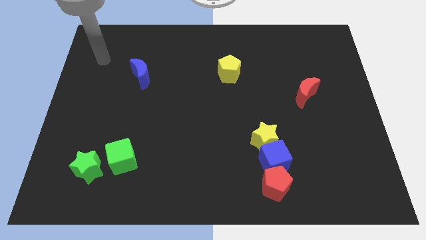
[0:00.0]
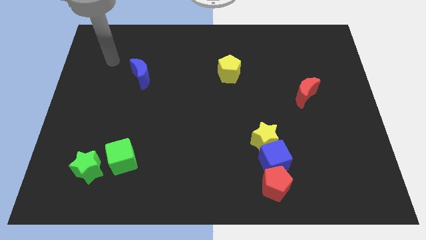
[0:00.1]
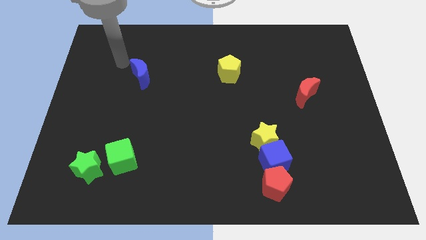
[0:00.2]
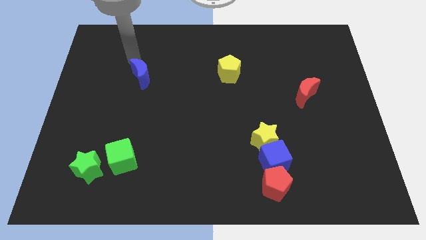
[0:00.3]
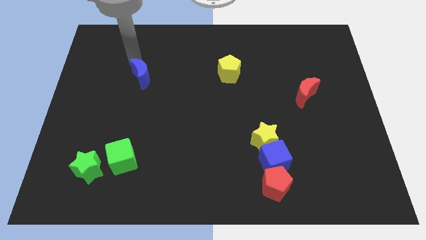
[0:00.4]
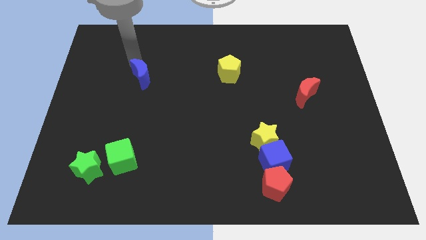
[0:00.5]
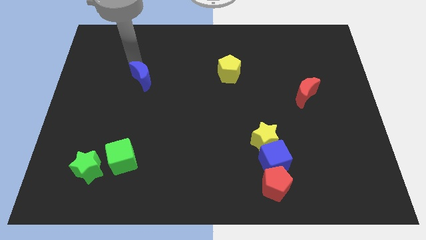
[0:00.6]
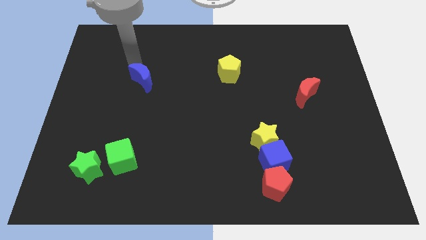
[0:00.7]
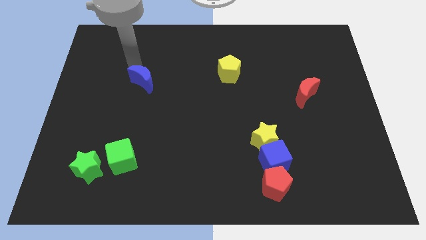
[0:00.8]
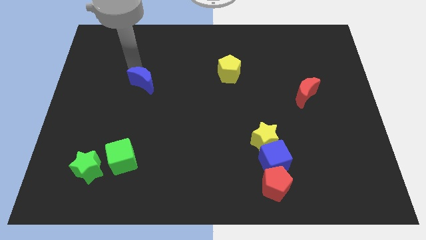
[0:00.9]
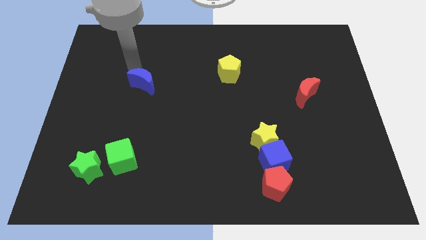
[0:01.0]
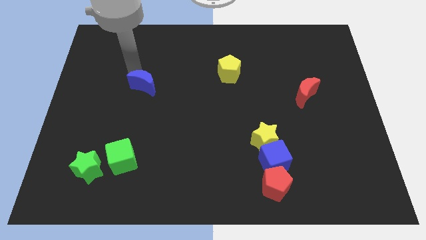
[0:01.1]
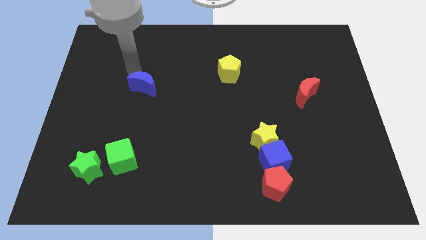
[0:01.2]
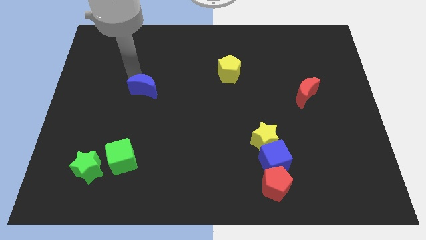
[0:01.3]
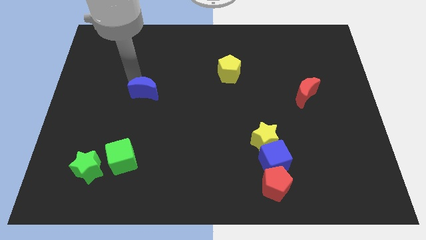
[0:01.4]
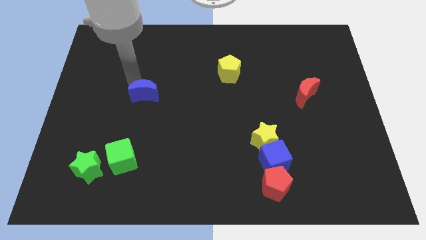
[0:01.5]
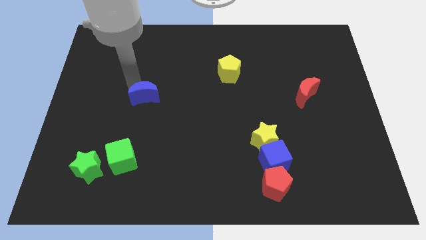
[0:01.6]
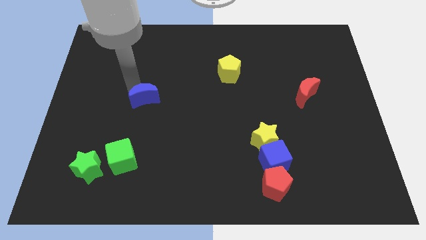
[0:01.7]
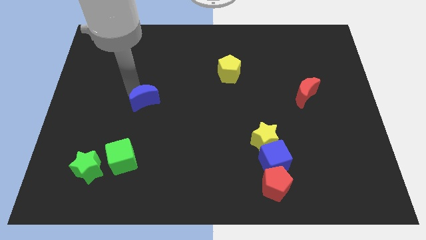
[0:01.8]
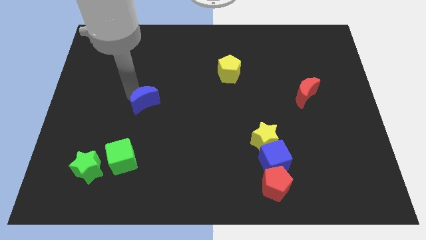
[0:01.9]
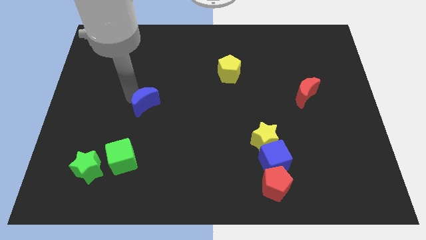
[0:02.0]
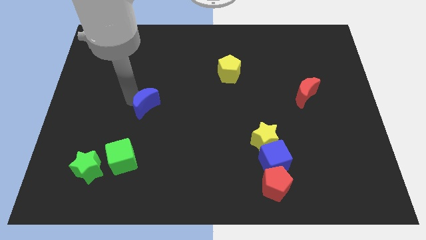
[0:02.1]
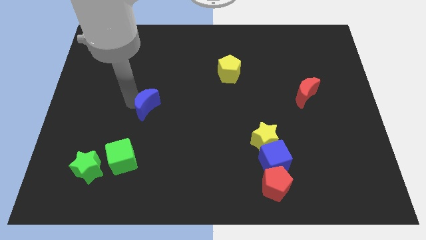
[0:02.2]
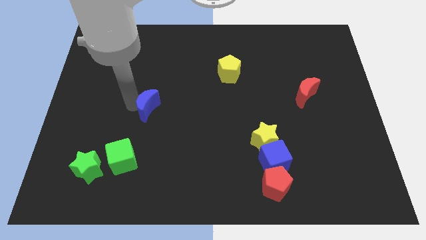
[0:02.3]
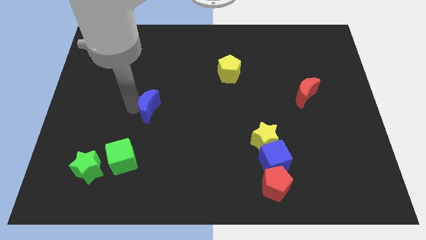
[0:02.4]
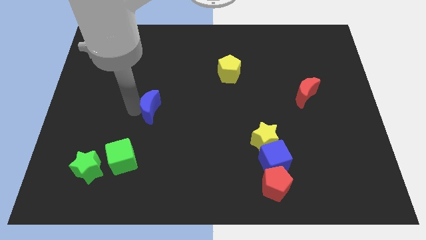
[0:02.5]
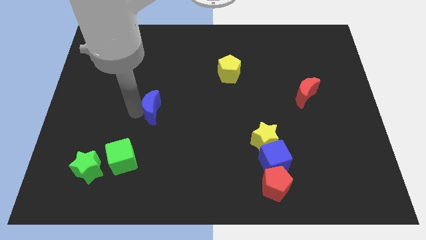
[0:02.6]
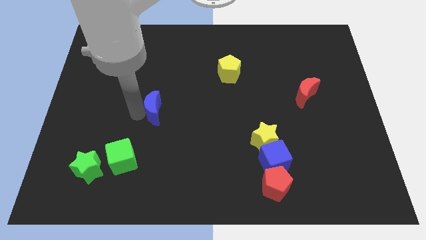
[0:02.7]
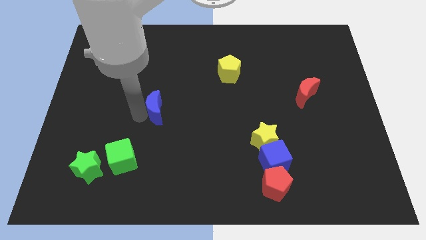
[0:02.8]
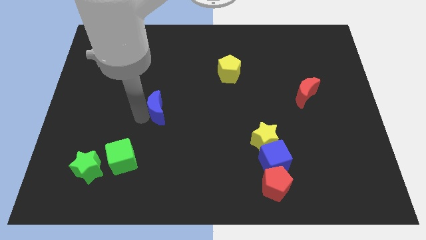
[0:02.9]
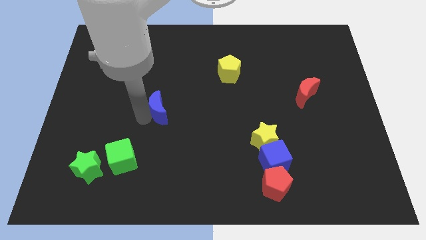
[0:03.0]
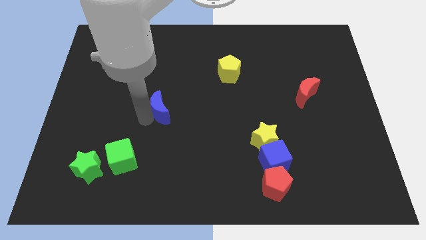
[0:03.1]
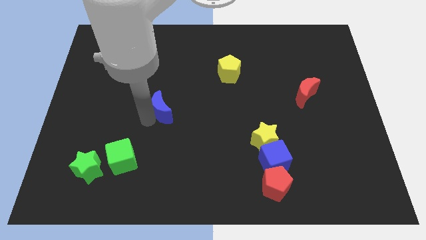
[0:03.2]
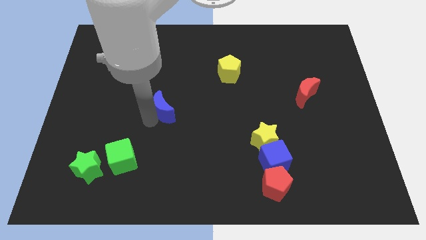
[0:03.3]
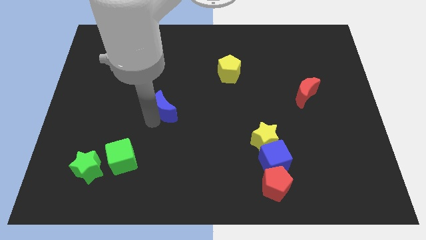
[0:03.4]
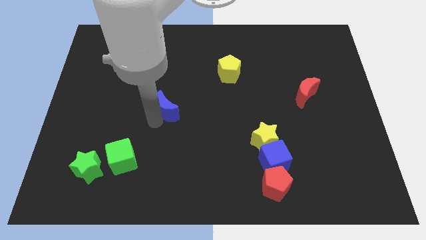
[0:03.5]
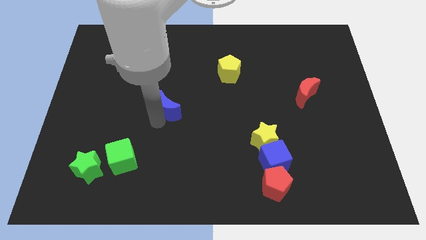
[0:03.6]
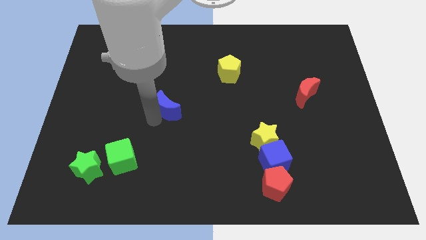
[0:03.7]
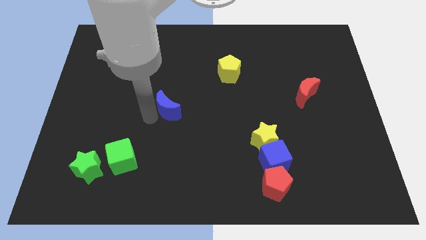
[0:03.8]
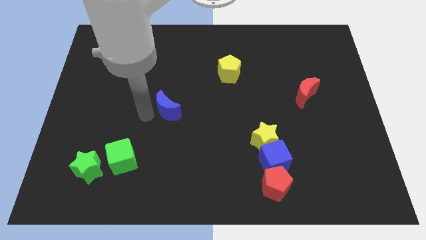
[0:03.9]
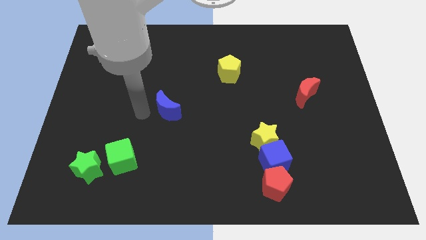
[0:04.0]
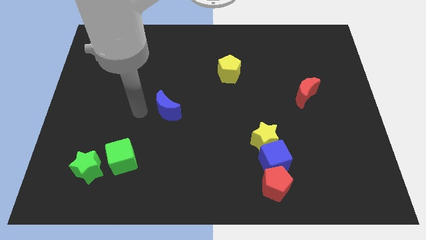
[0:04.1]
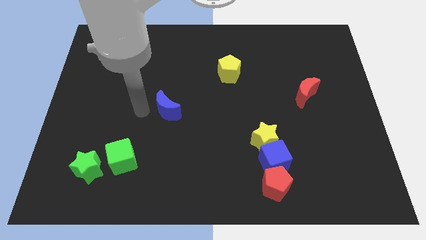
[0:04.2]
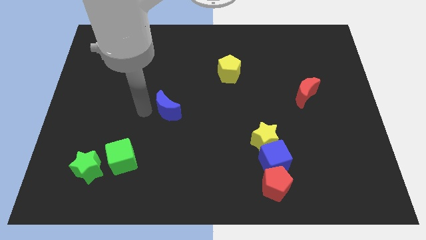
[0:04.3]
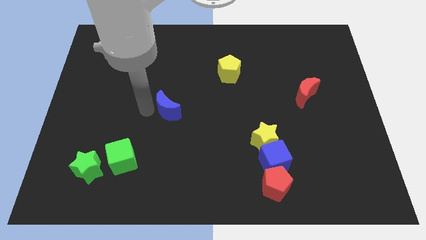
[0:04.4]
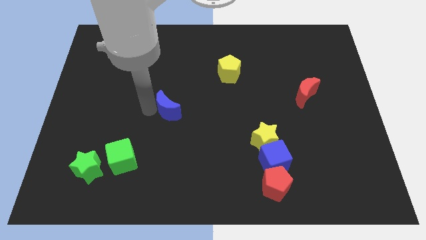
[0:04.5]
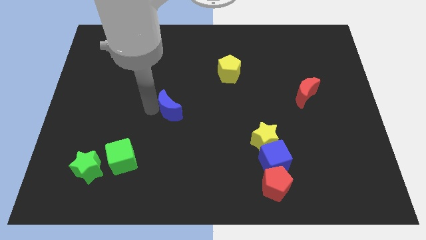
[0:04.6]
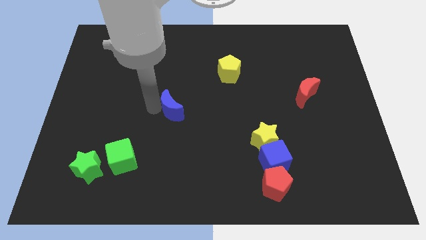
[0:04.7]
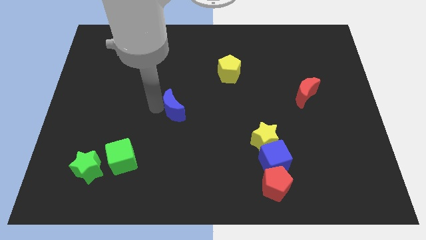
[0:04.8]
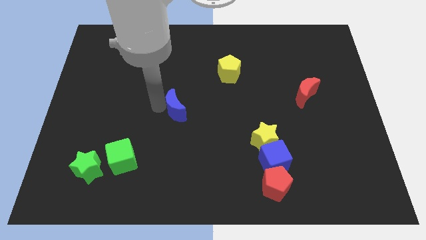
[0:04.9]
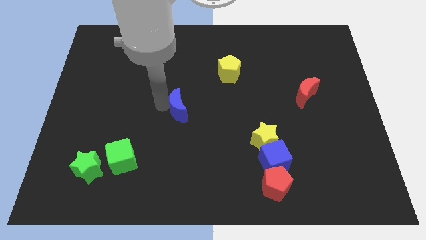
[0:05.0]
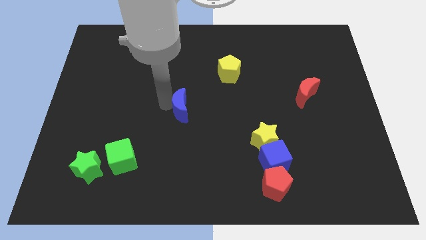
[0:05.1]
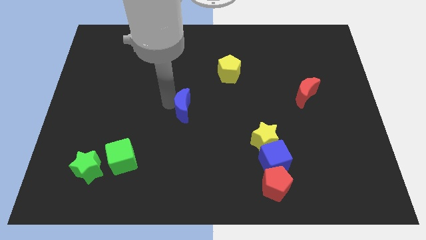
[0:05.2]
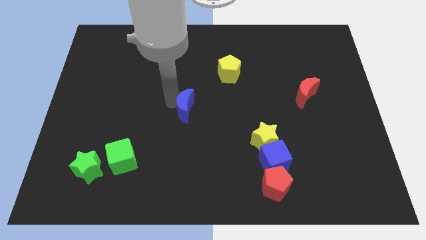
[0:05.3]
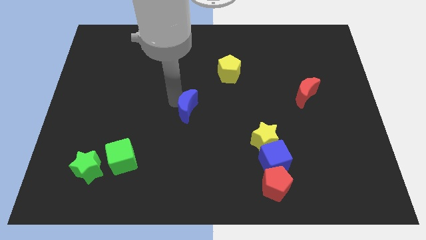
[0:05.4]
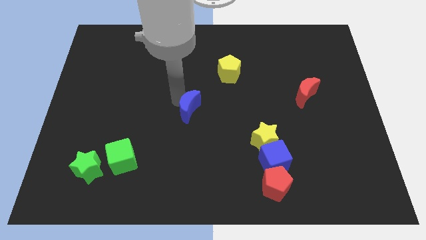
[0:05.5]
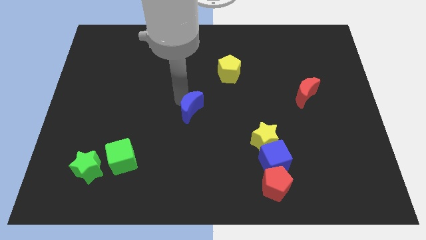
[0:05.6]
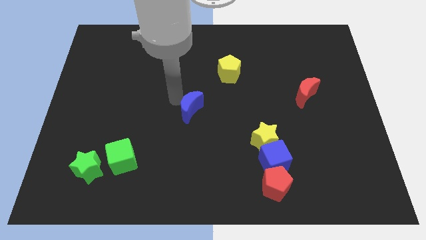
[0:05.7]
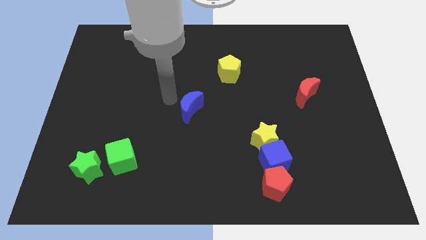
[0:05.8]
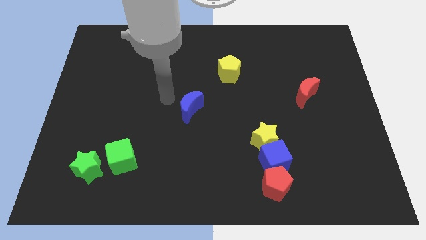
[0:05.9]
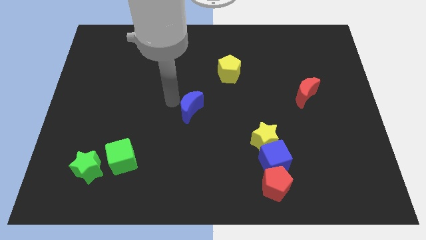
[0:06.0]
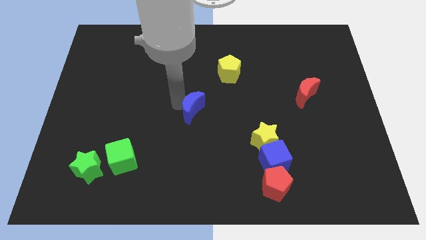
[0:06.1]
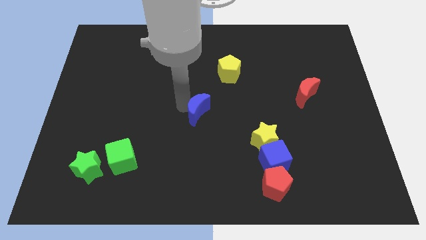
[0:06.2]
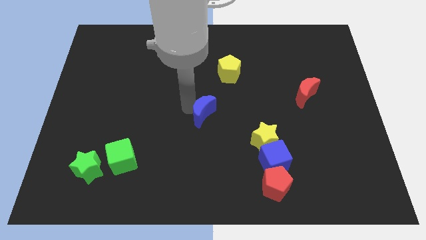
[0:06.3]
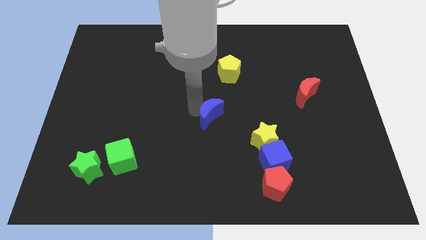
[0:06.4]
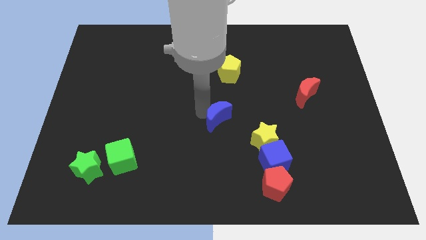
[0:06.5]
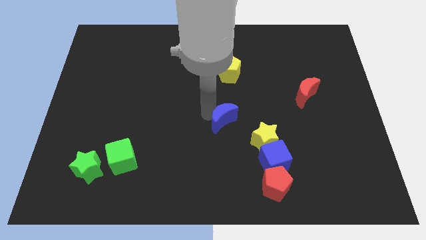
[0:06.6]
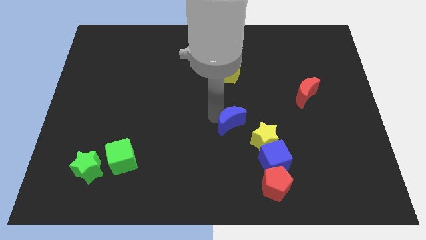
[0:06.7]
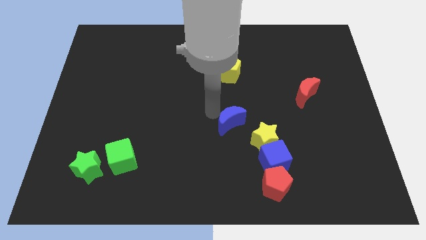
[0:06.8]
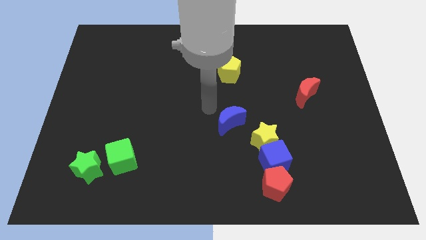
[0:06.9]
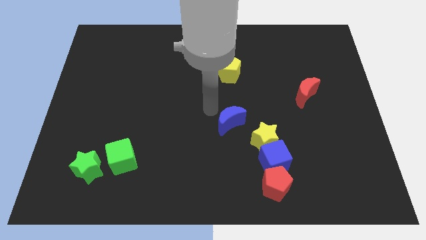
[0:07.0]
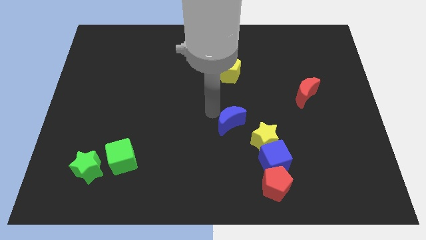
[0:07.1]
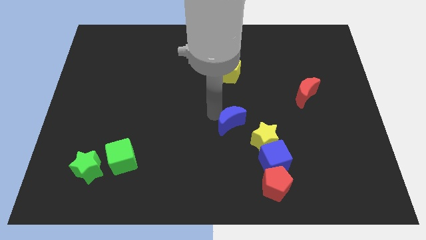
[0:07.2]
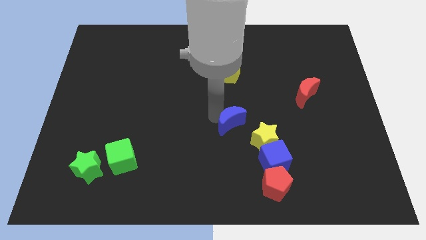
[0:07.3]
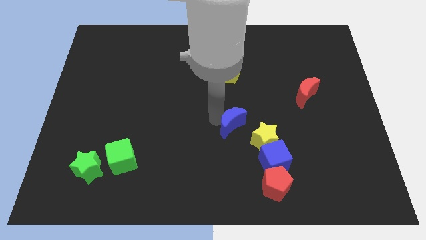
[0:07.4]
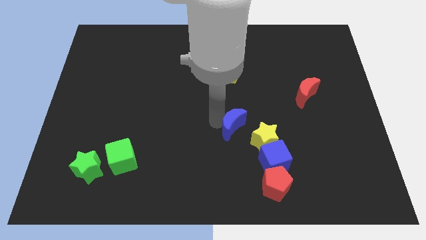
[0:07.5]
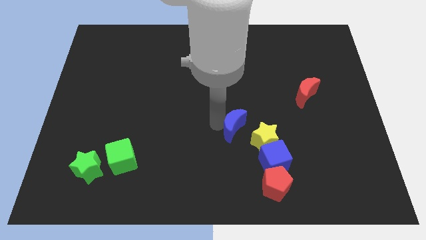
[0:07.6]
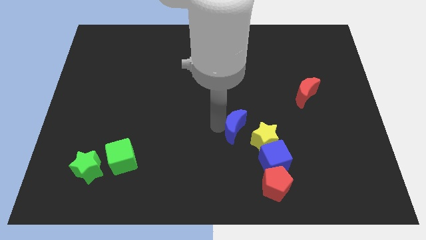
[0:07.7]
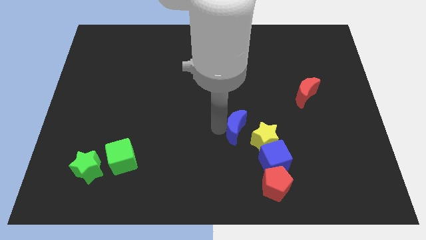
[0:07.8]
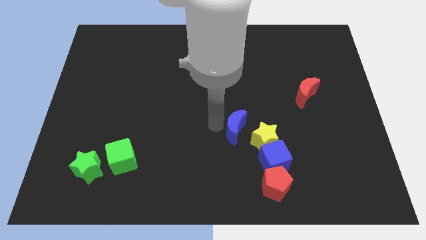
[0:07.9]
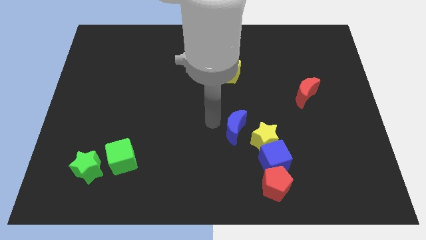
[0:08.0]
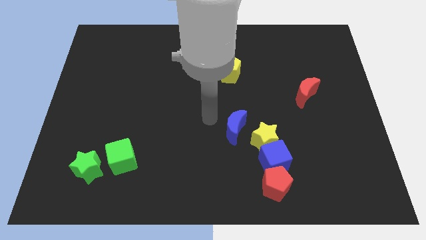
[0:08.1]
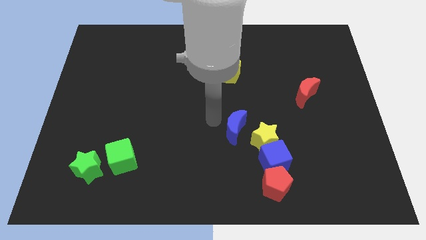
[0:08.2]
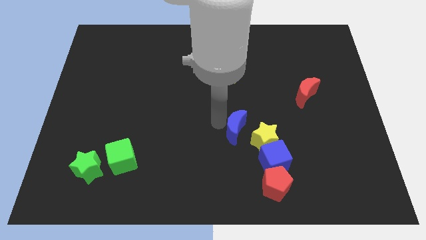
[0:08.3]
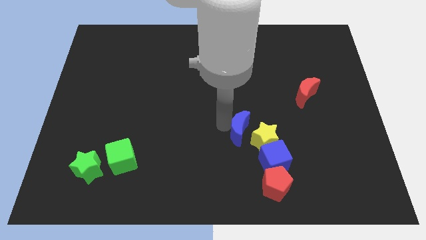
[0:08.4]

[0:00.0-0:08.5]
push the blue moon next to the yellow star
